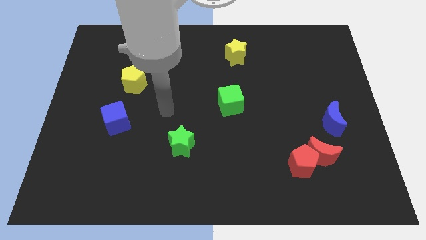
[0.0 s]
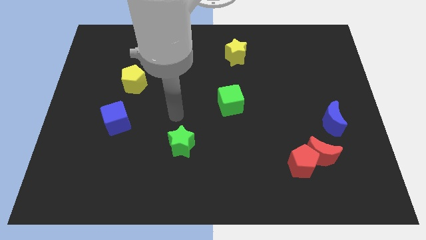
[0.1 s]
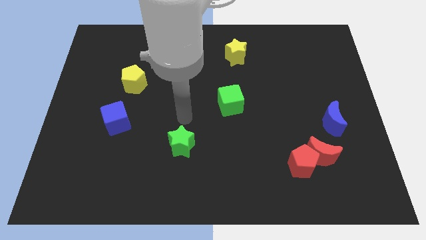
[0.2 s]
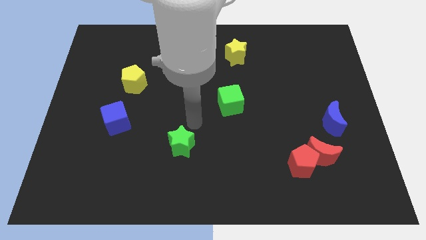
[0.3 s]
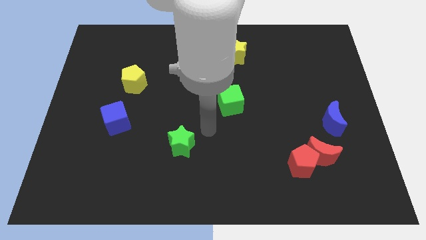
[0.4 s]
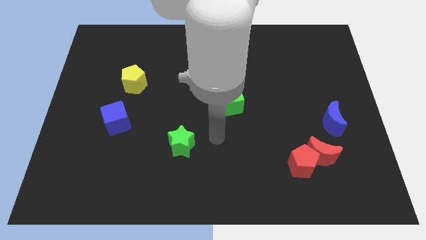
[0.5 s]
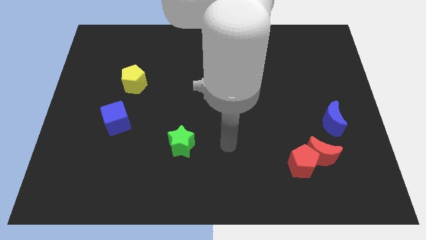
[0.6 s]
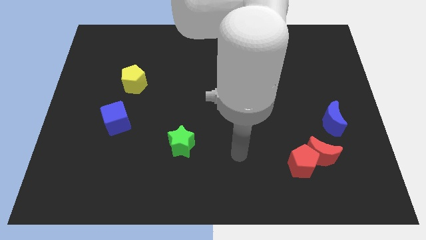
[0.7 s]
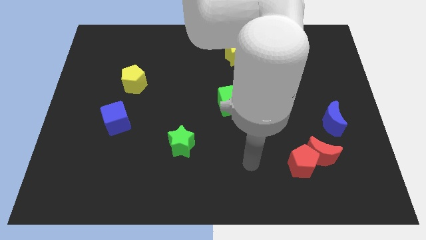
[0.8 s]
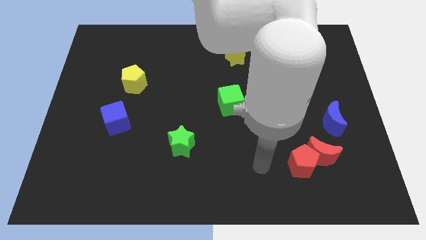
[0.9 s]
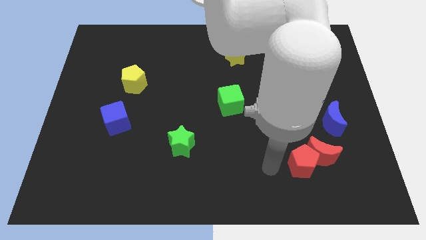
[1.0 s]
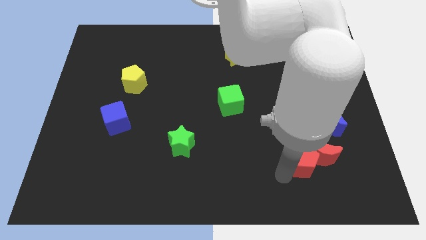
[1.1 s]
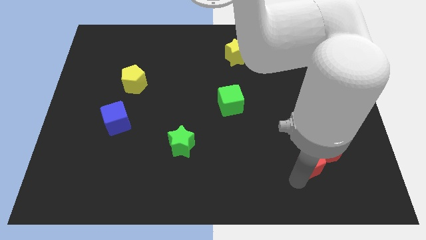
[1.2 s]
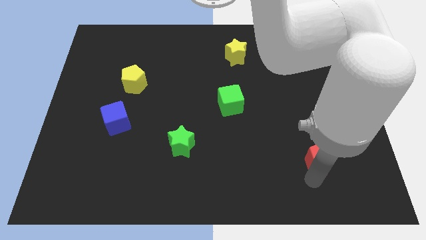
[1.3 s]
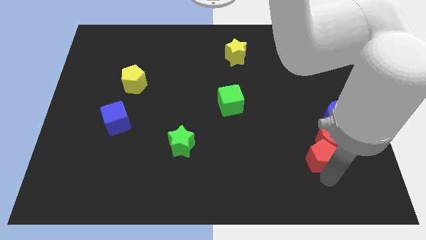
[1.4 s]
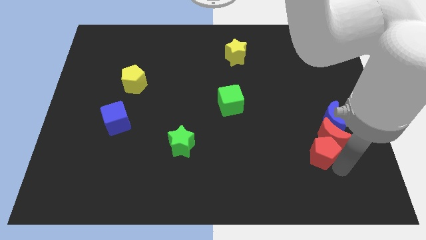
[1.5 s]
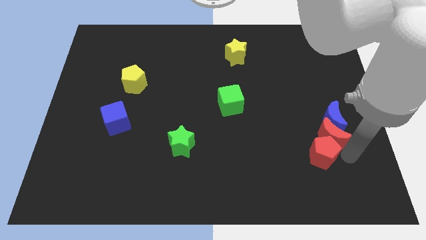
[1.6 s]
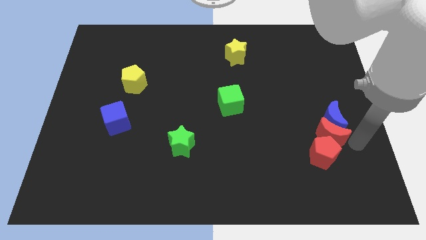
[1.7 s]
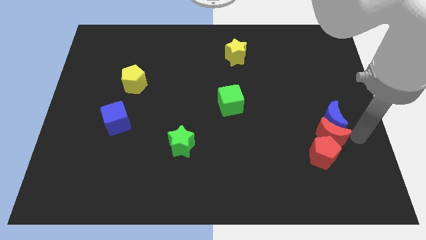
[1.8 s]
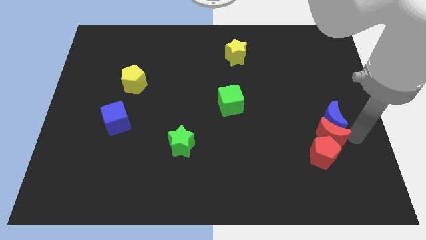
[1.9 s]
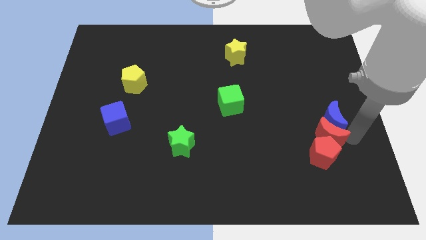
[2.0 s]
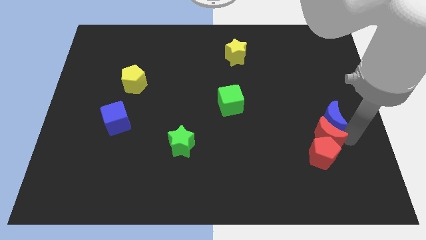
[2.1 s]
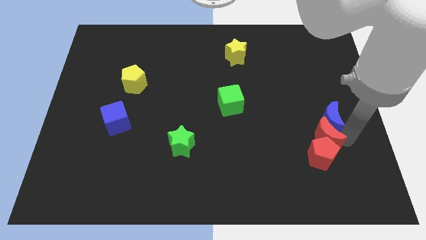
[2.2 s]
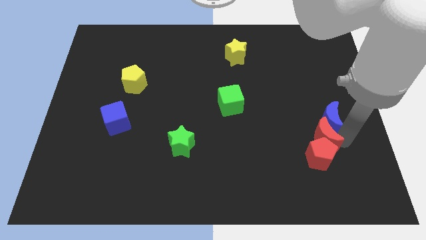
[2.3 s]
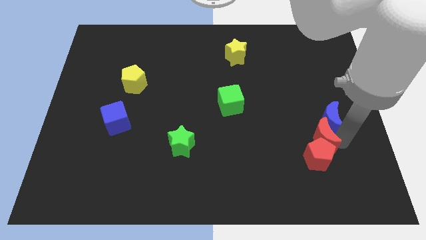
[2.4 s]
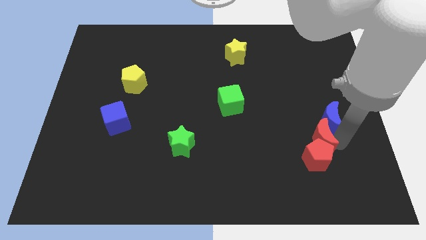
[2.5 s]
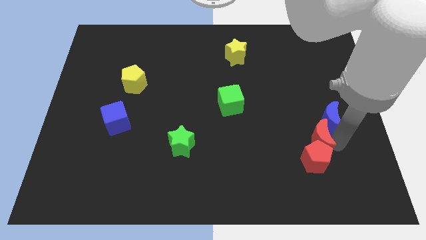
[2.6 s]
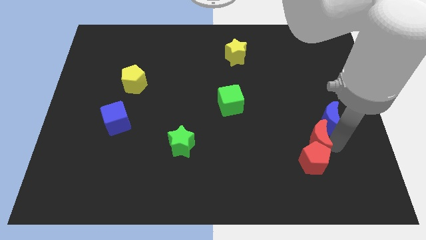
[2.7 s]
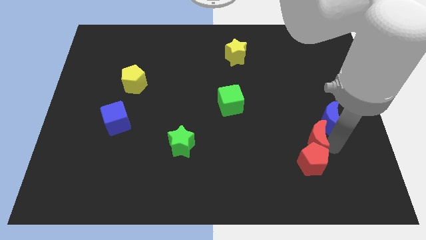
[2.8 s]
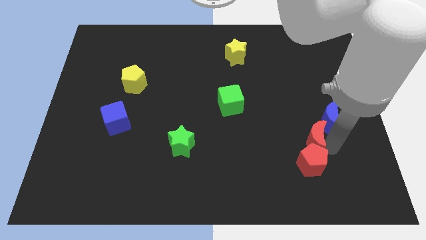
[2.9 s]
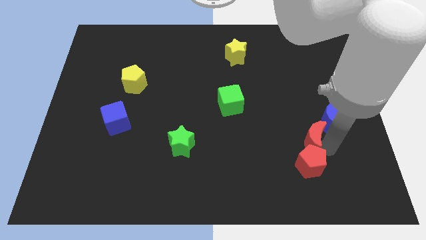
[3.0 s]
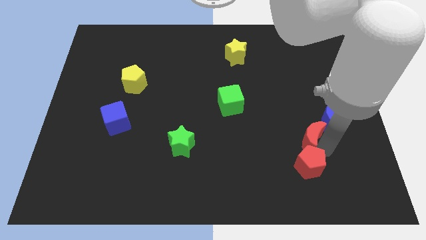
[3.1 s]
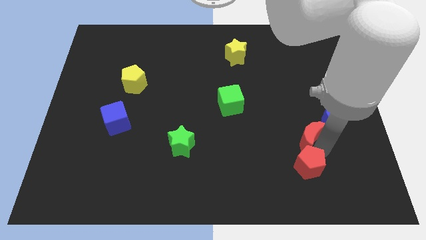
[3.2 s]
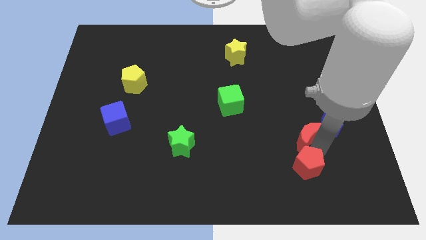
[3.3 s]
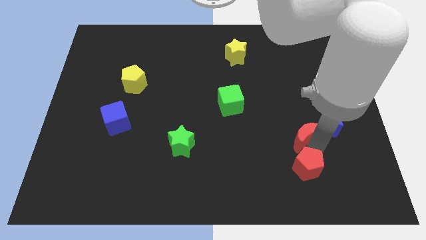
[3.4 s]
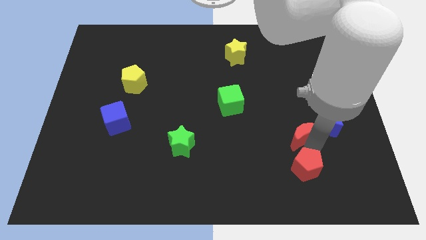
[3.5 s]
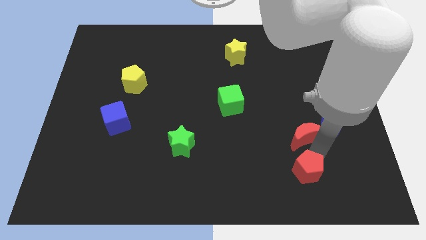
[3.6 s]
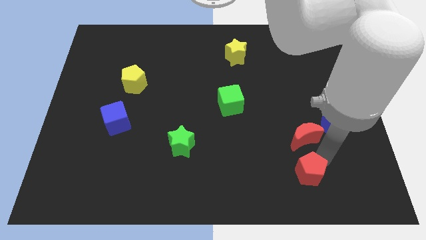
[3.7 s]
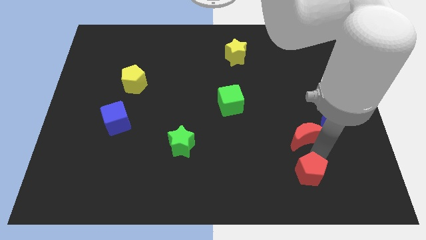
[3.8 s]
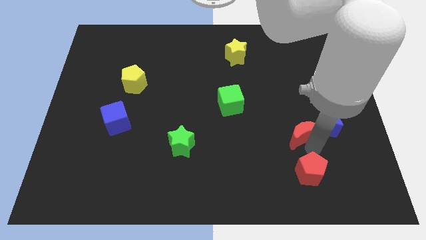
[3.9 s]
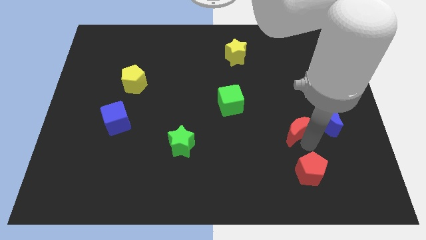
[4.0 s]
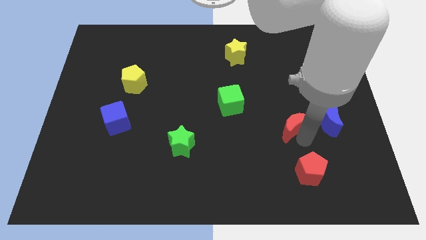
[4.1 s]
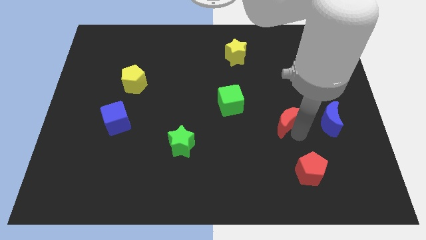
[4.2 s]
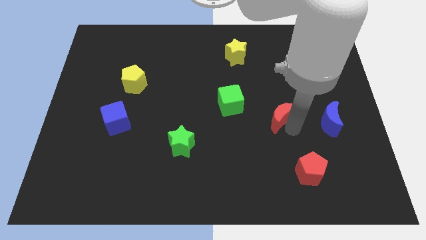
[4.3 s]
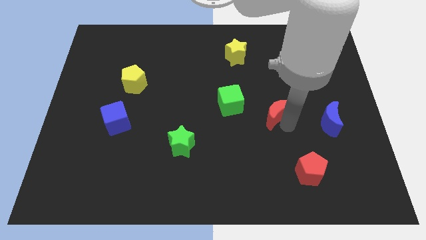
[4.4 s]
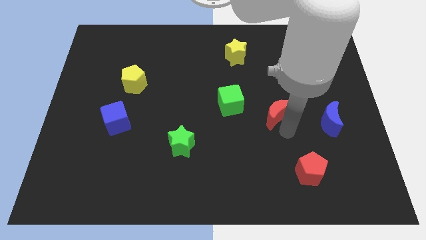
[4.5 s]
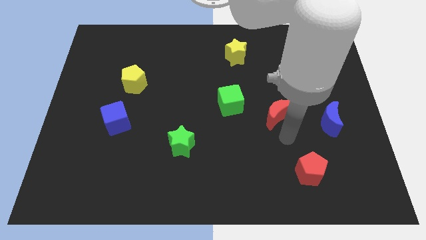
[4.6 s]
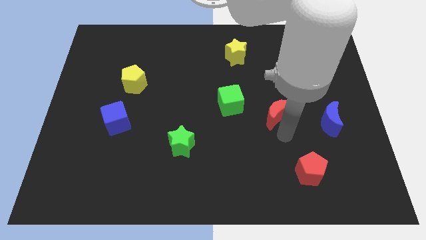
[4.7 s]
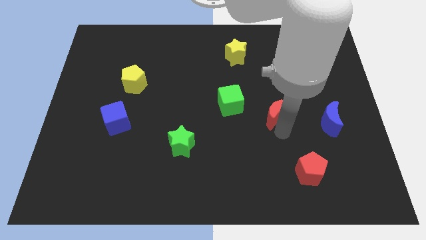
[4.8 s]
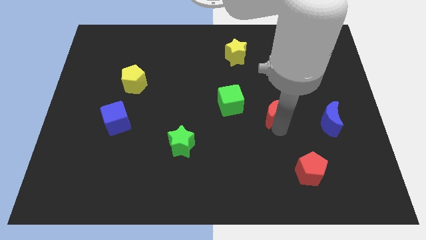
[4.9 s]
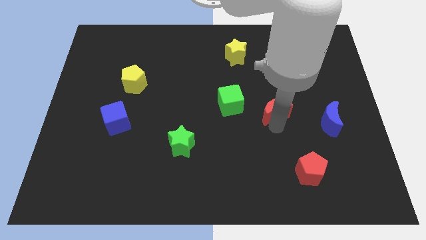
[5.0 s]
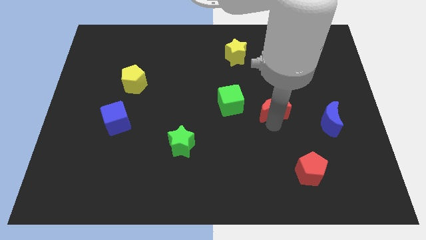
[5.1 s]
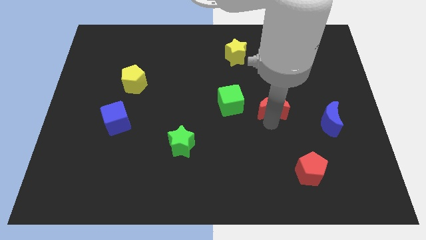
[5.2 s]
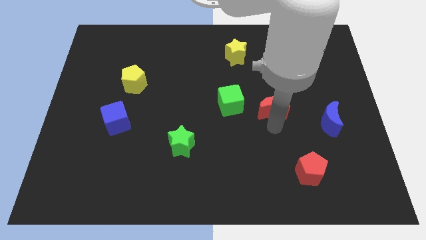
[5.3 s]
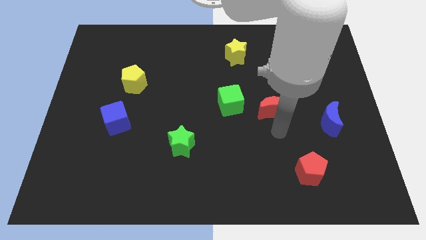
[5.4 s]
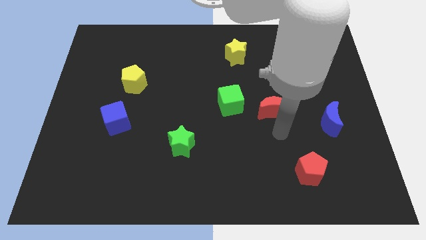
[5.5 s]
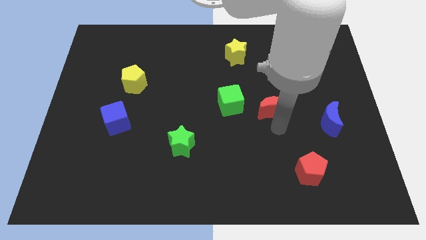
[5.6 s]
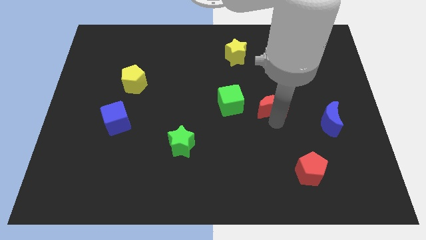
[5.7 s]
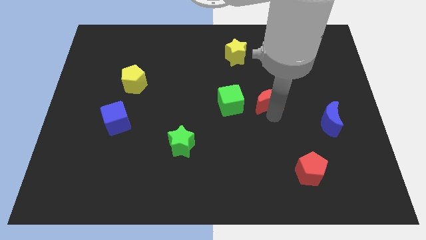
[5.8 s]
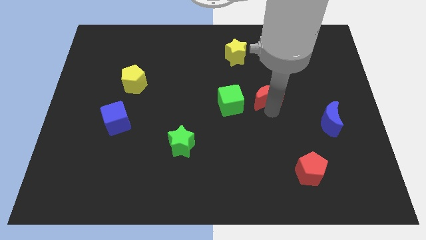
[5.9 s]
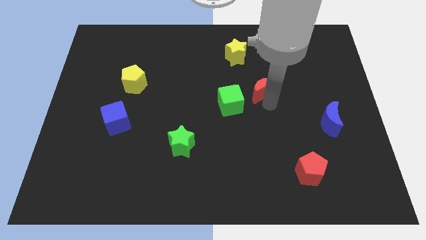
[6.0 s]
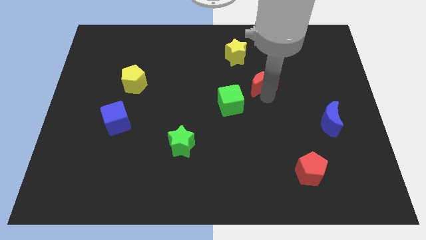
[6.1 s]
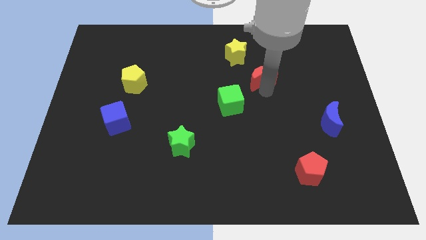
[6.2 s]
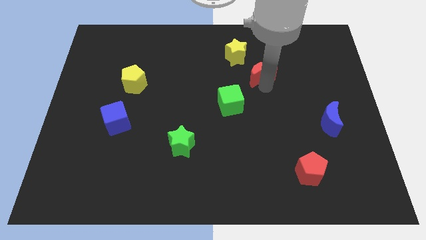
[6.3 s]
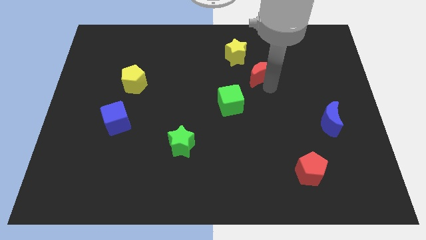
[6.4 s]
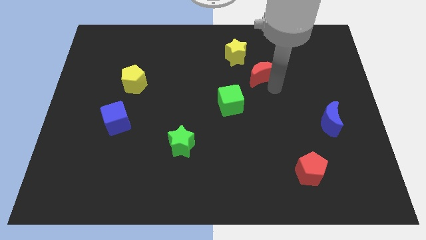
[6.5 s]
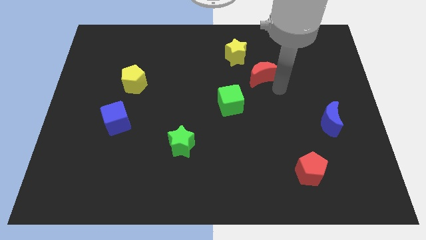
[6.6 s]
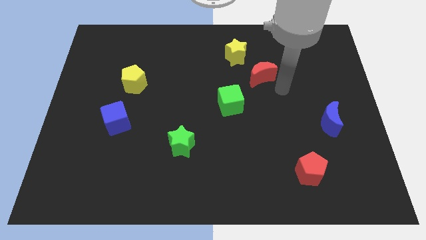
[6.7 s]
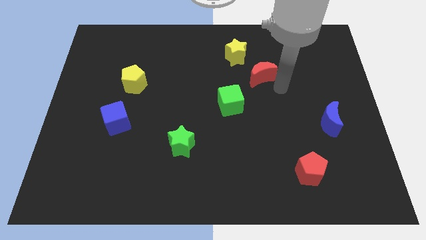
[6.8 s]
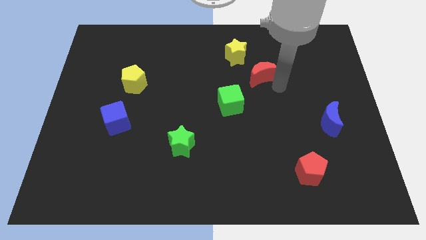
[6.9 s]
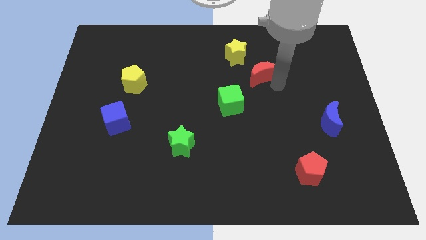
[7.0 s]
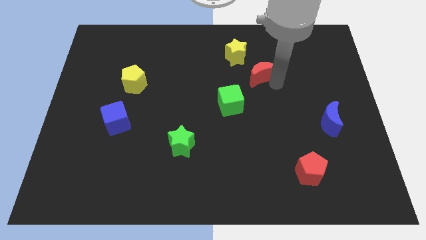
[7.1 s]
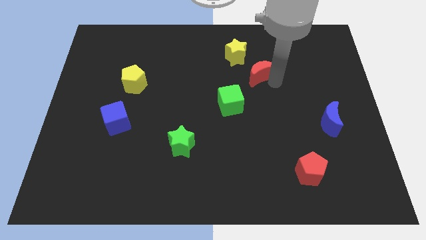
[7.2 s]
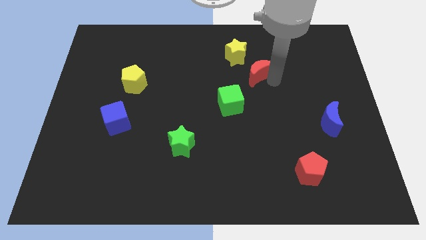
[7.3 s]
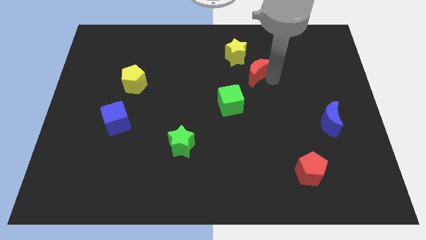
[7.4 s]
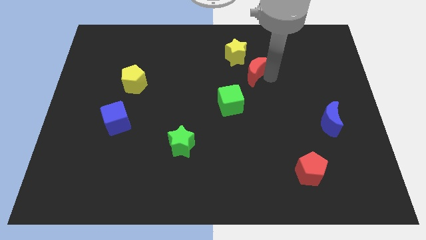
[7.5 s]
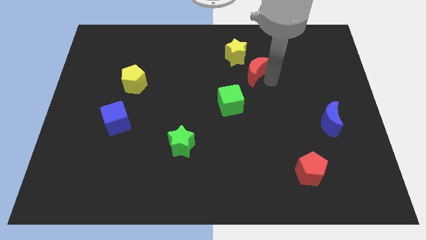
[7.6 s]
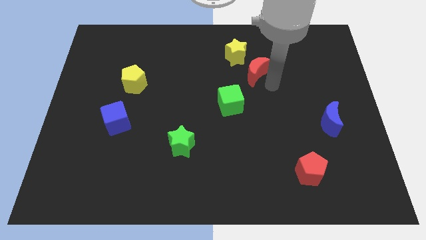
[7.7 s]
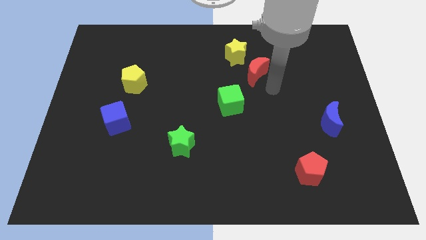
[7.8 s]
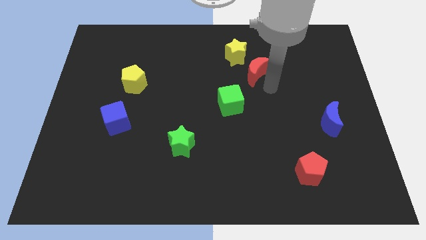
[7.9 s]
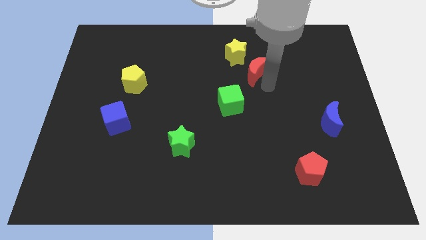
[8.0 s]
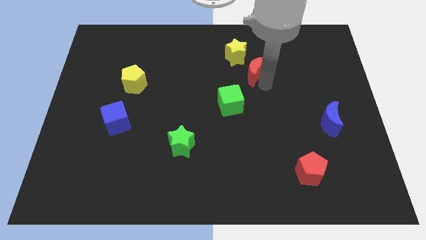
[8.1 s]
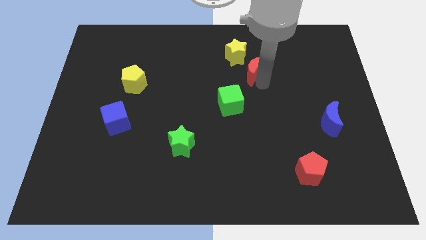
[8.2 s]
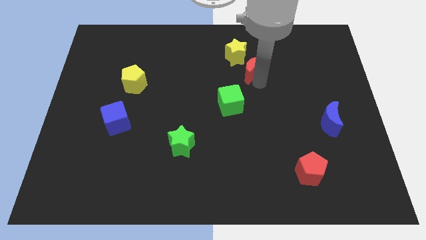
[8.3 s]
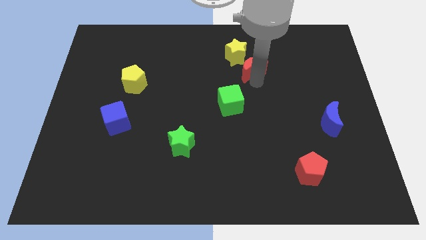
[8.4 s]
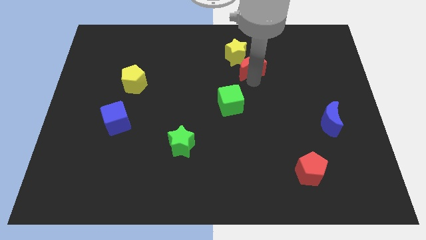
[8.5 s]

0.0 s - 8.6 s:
put the red moon to the yellow star
